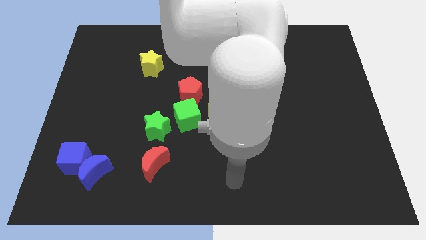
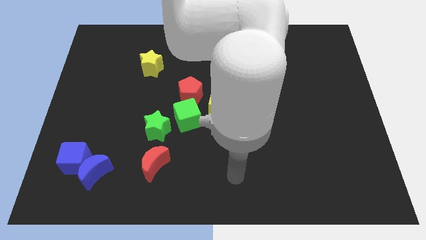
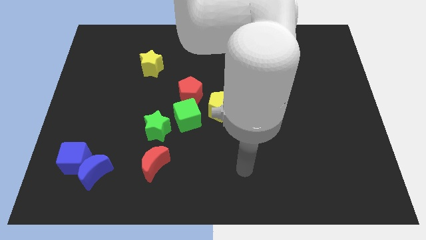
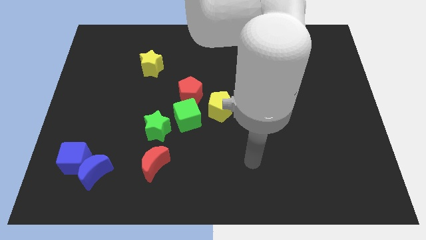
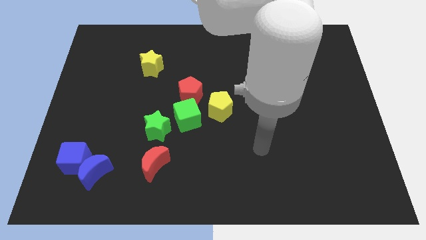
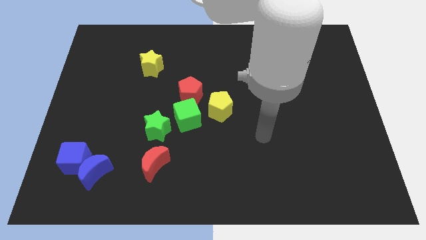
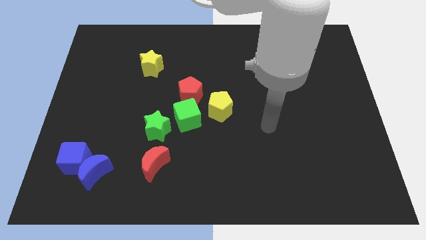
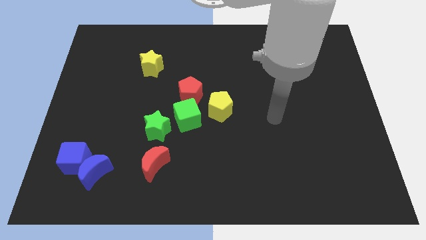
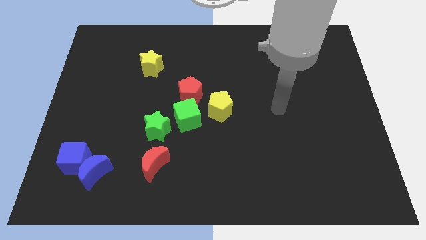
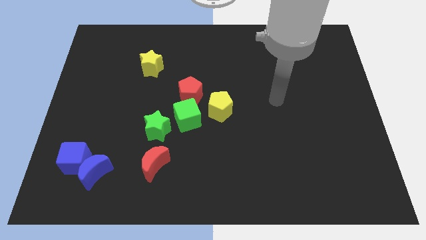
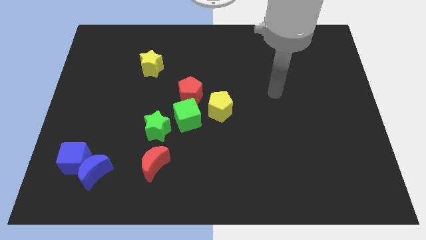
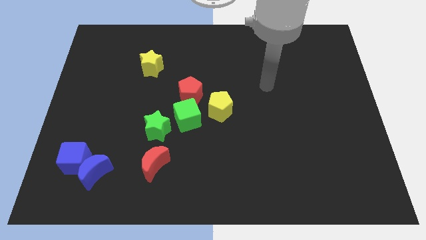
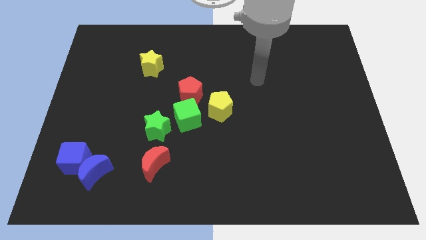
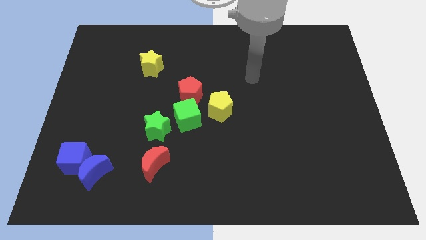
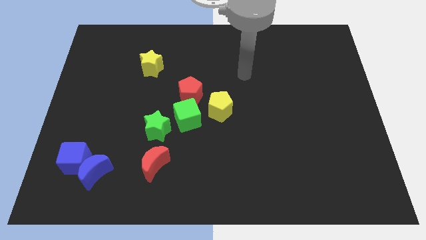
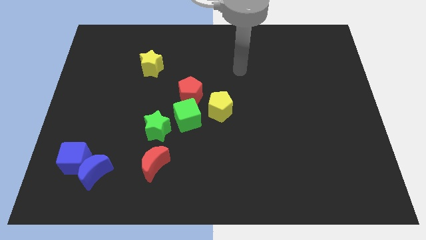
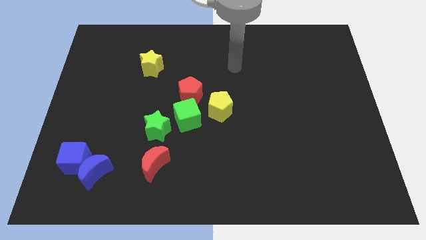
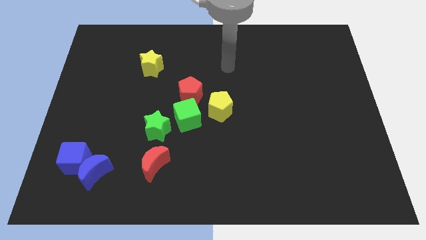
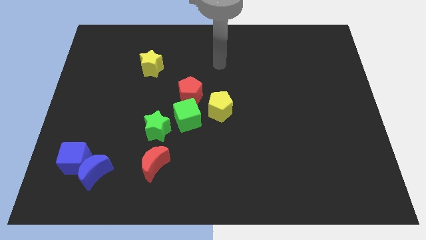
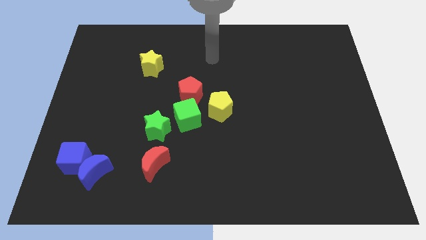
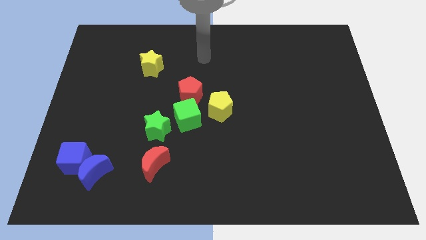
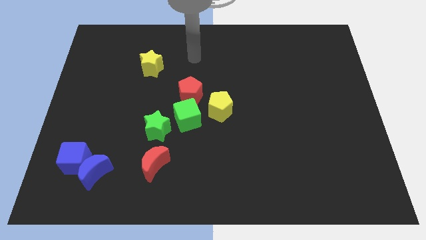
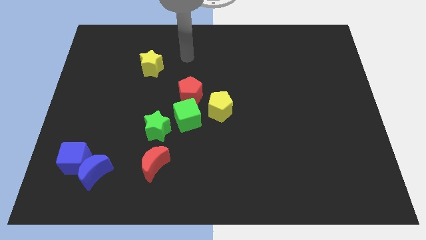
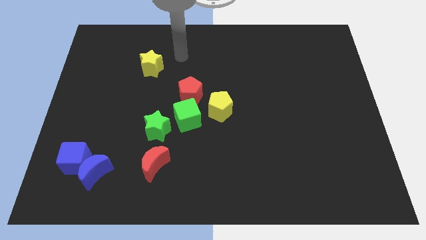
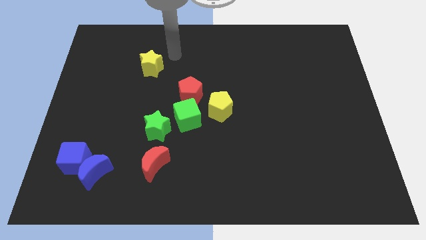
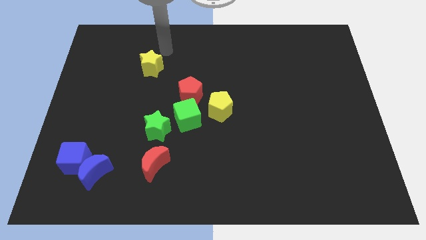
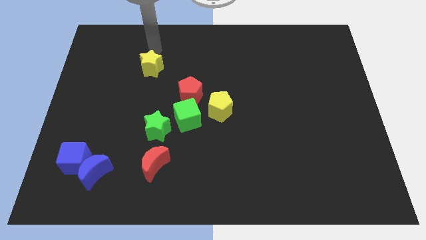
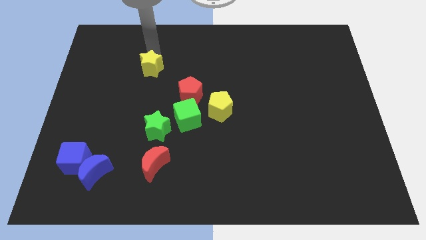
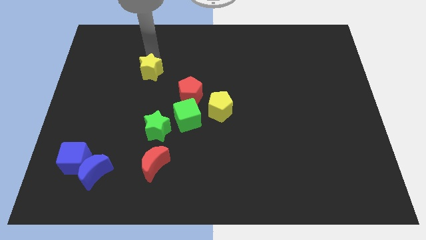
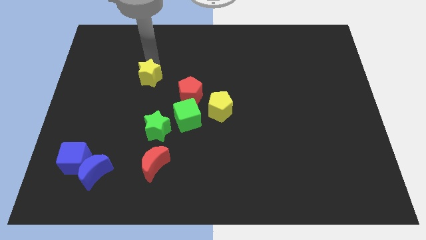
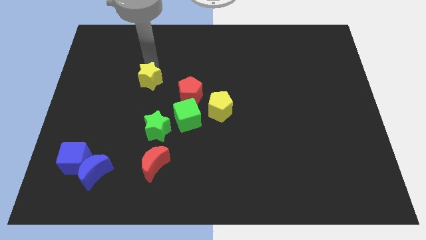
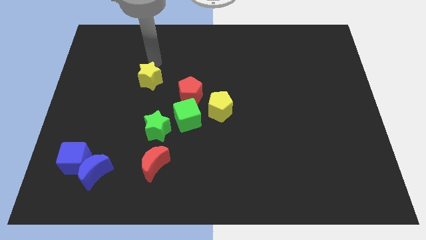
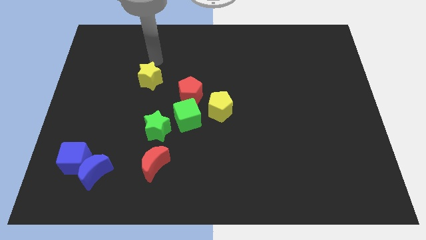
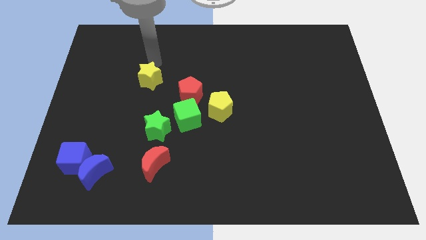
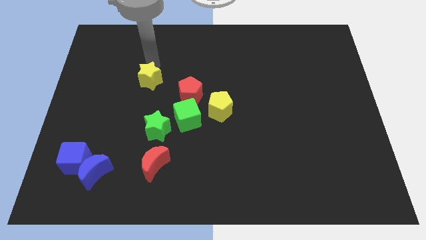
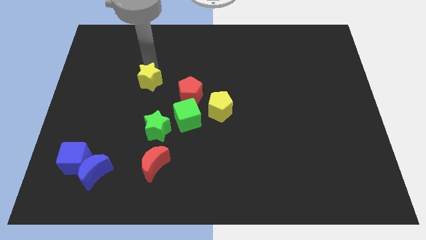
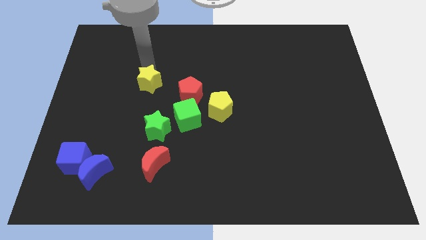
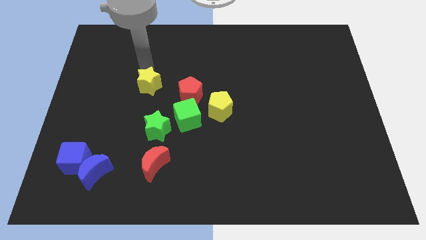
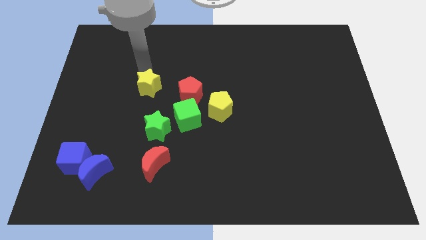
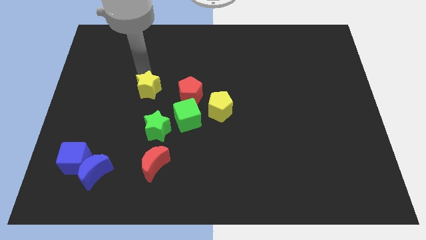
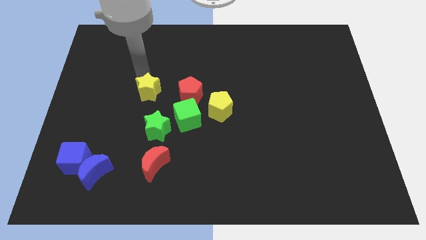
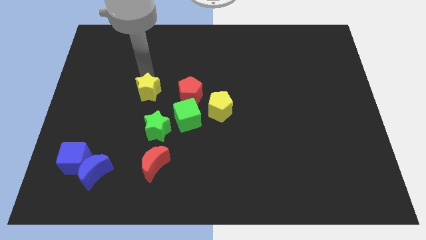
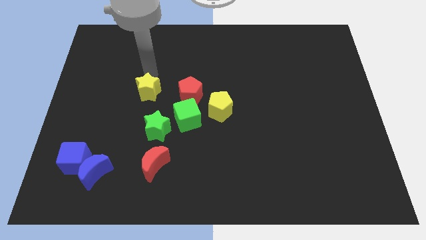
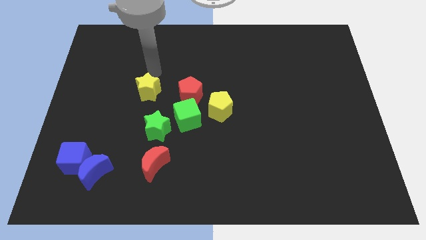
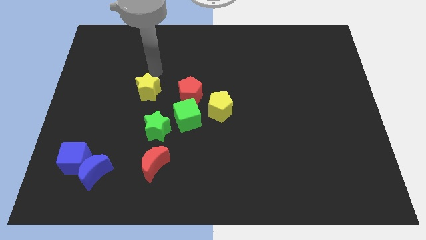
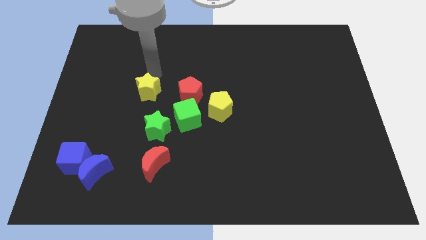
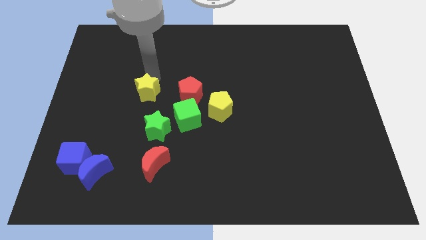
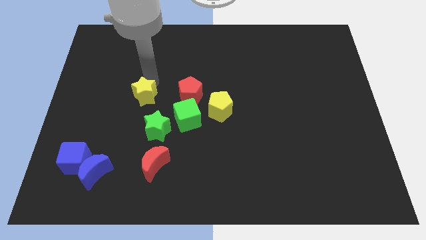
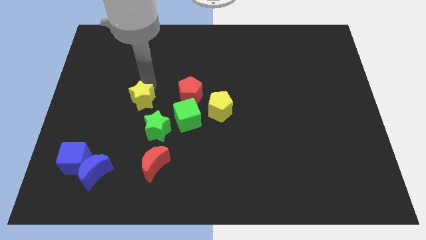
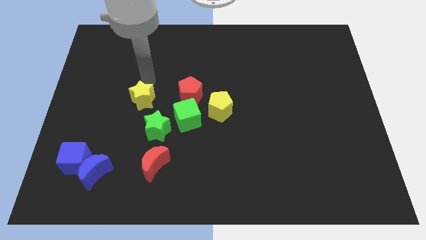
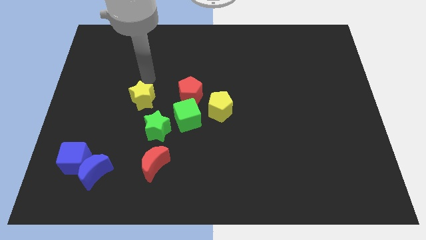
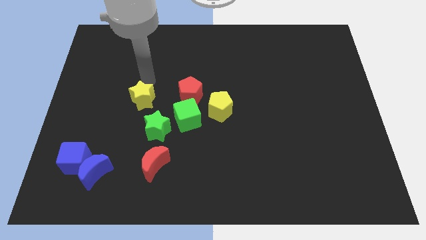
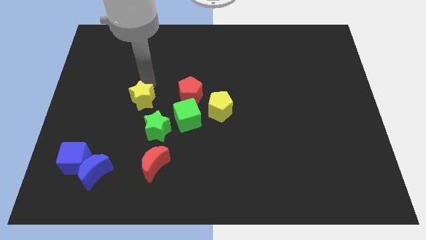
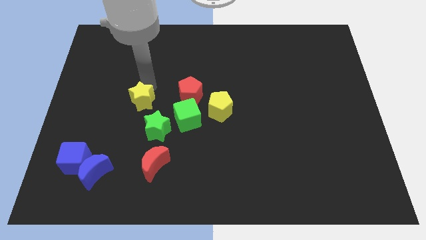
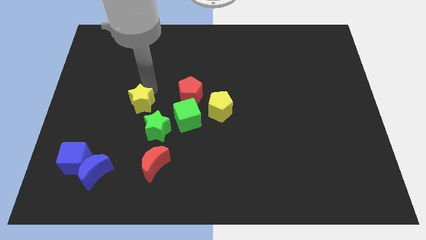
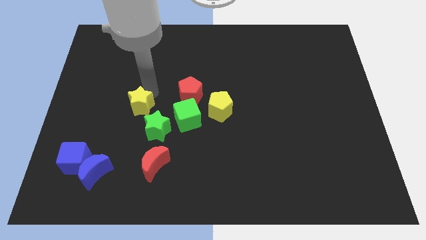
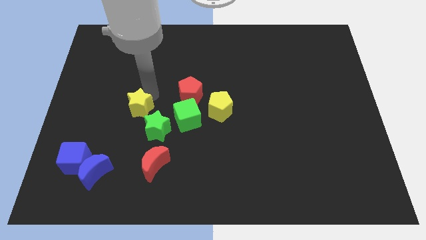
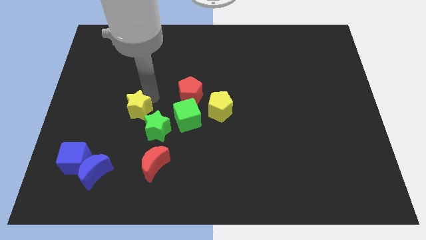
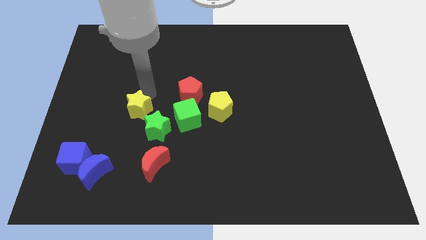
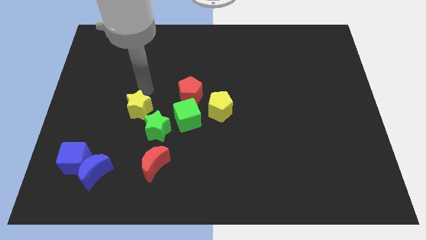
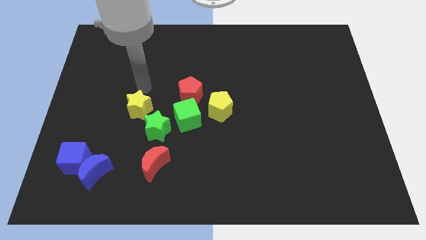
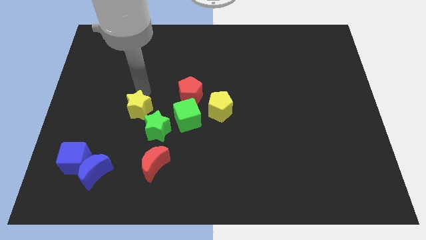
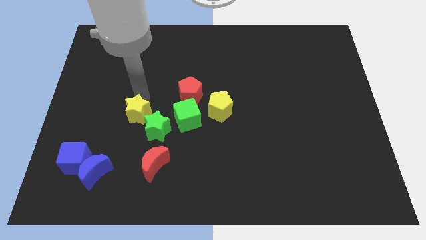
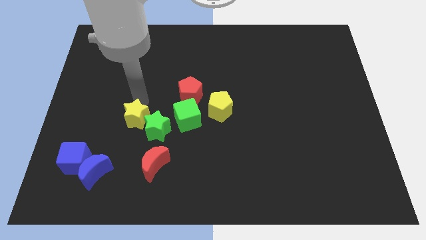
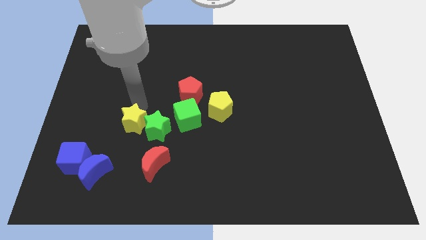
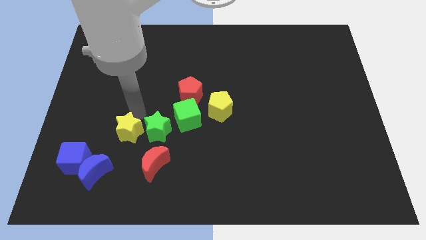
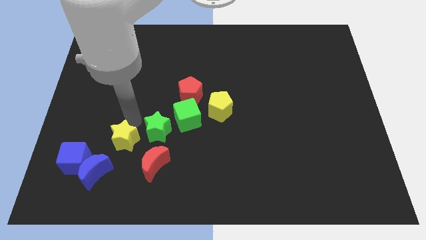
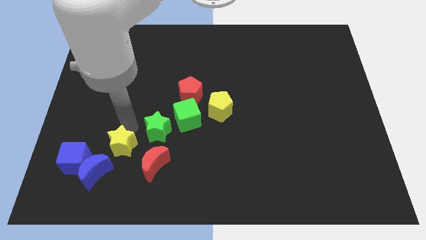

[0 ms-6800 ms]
push the yellow star to the right side of the blue cube

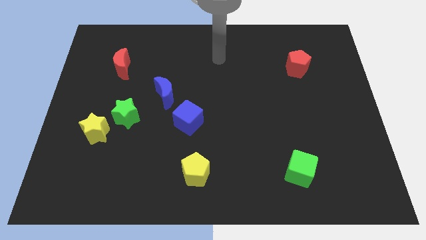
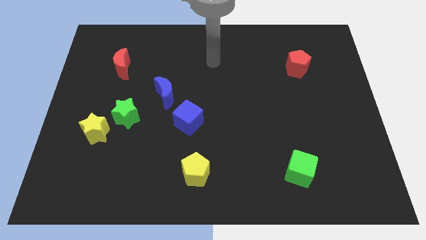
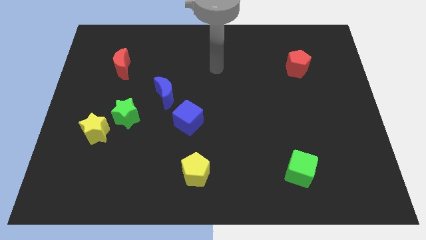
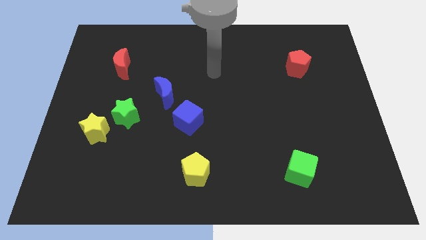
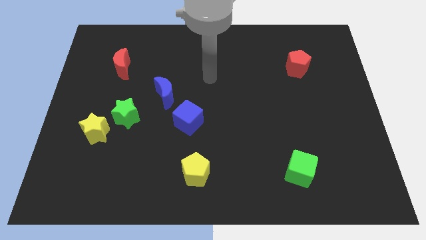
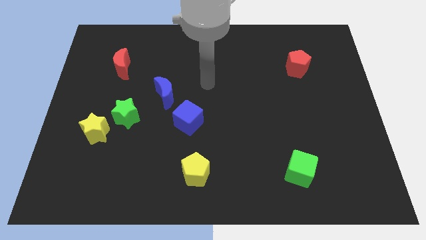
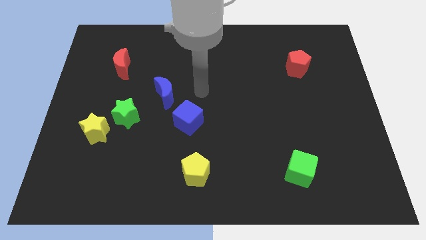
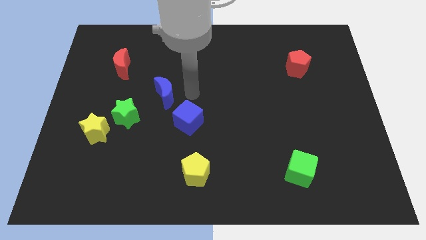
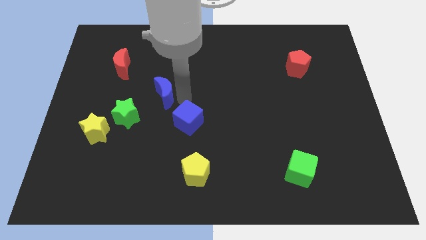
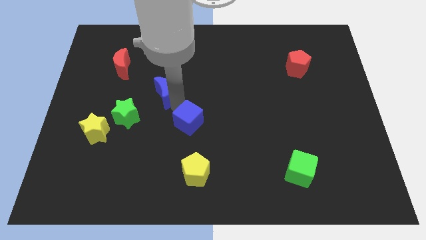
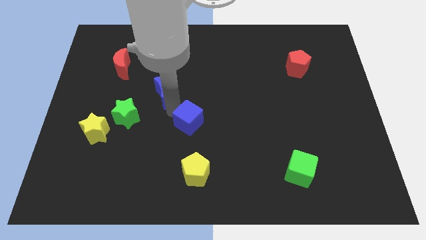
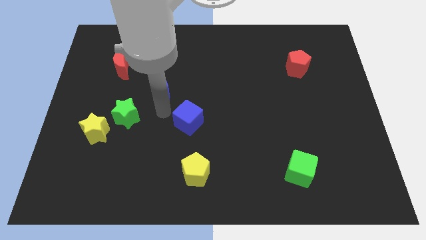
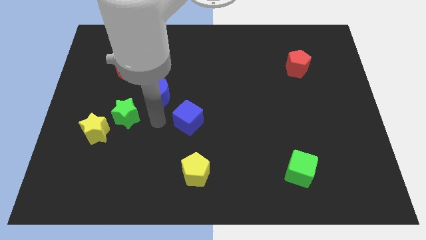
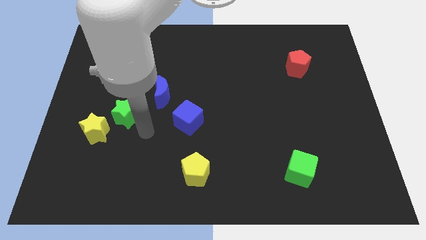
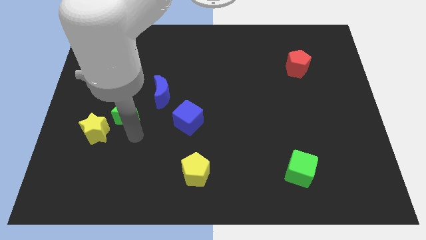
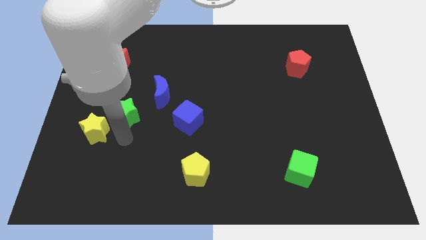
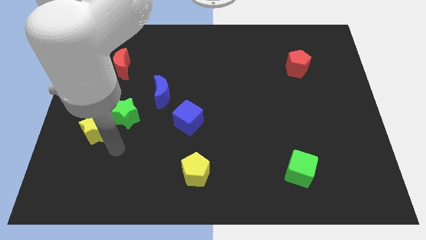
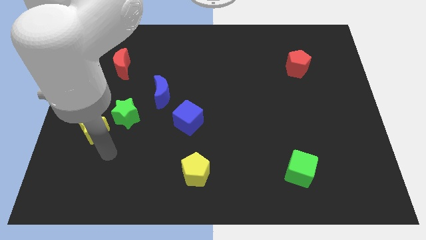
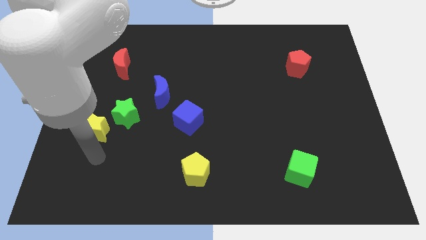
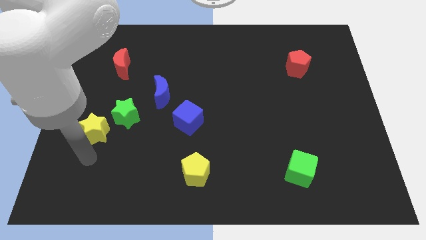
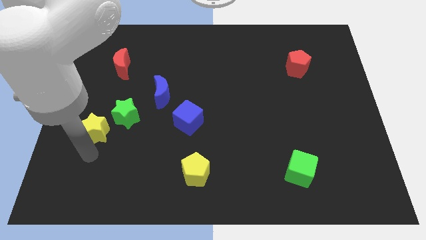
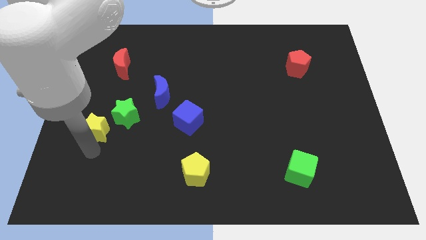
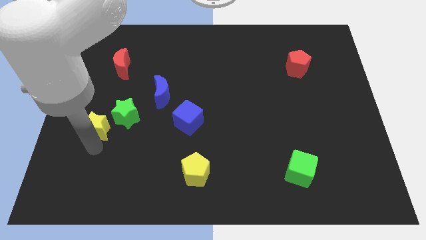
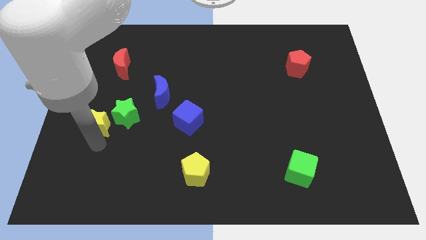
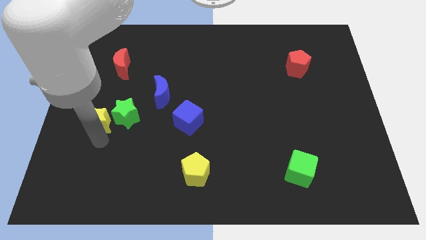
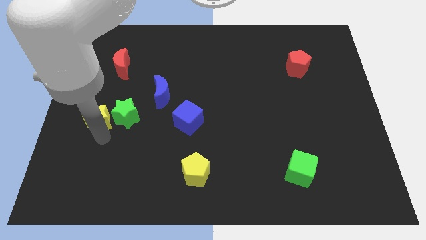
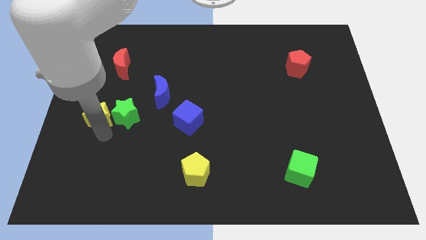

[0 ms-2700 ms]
move the yellow star diagonally up and to the left of the green star
